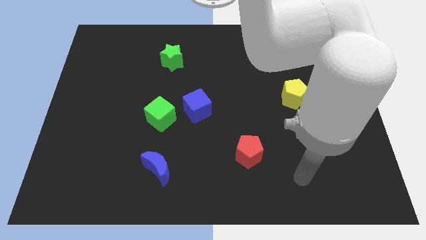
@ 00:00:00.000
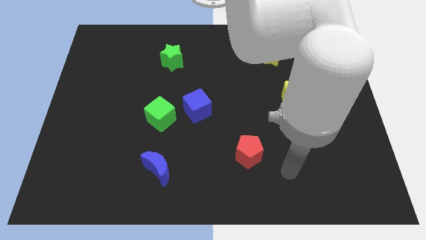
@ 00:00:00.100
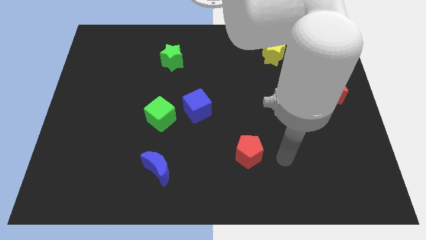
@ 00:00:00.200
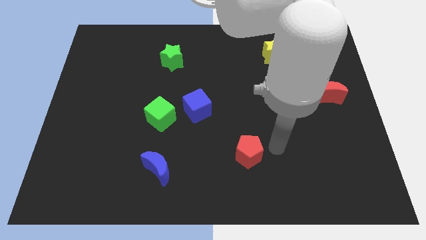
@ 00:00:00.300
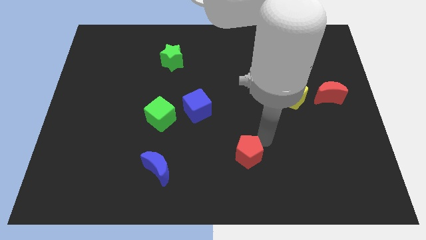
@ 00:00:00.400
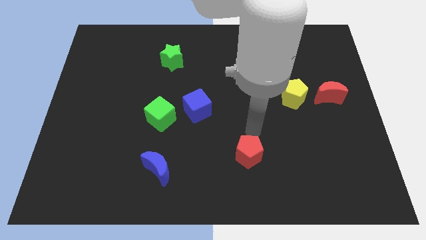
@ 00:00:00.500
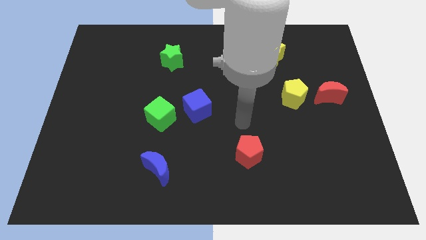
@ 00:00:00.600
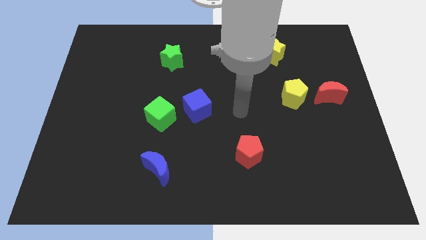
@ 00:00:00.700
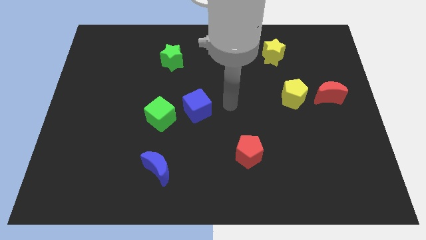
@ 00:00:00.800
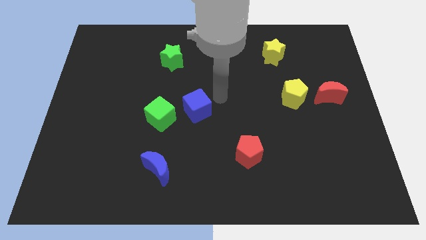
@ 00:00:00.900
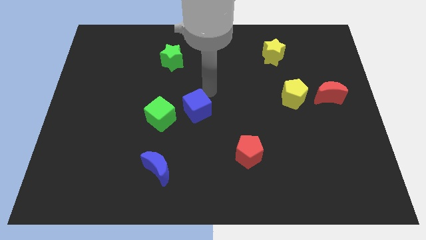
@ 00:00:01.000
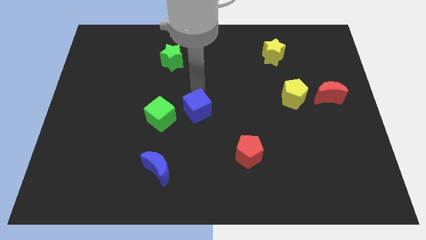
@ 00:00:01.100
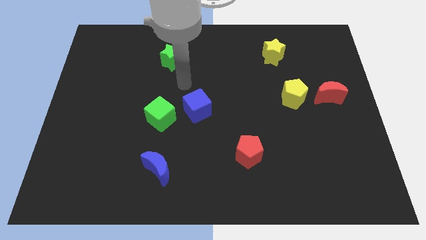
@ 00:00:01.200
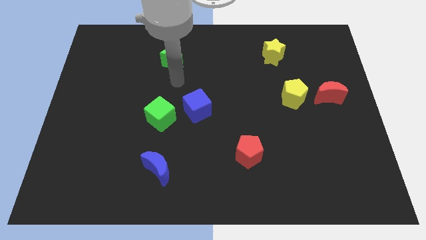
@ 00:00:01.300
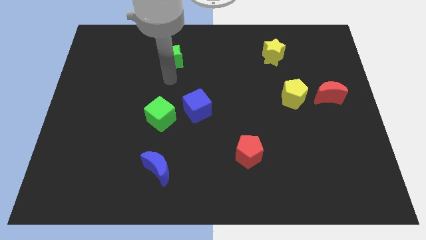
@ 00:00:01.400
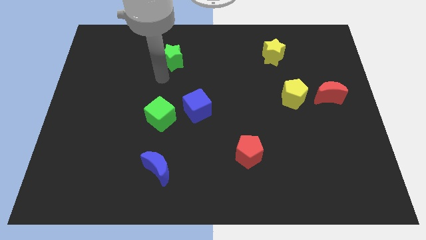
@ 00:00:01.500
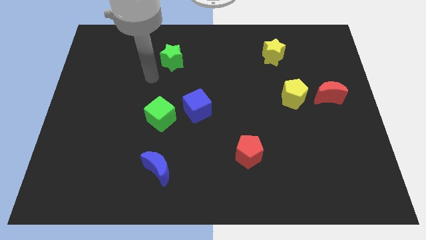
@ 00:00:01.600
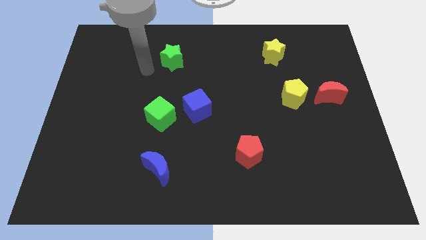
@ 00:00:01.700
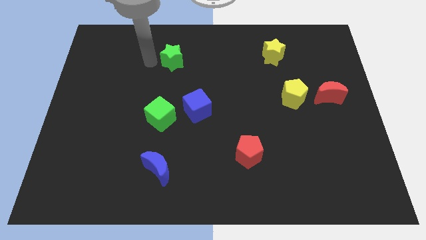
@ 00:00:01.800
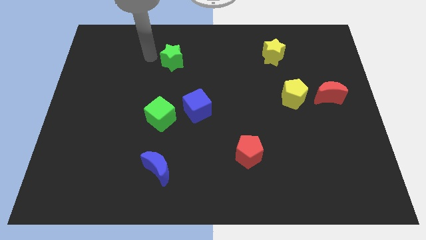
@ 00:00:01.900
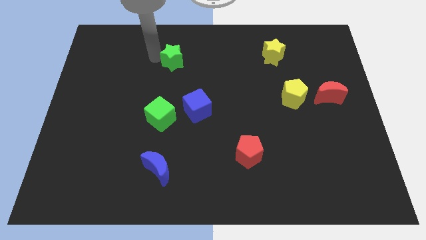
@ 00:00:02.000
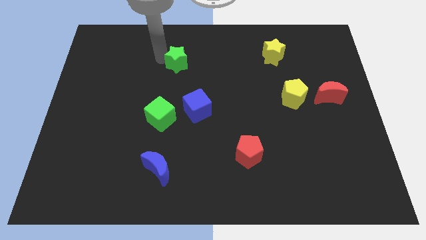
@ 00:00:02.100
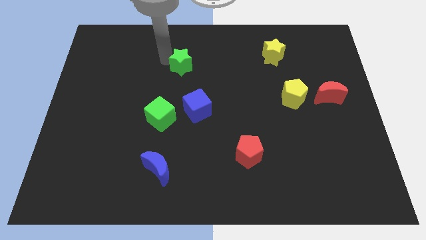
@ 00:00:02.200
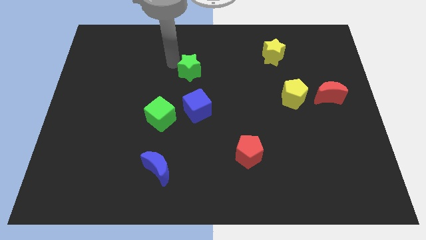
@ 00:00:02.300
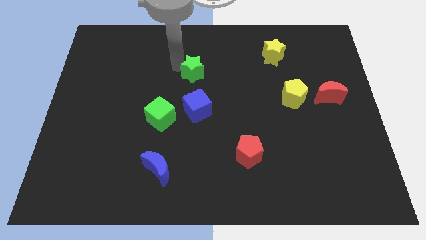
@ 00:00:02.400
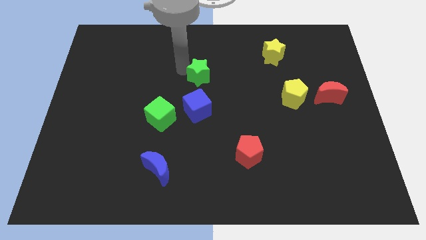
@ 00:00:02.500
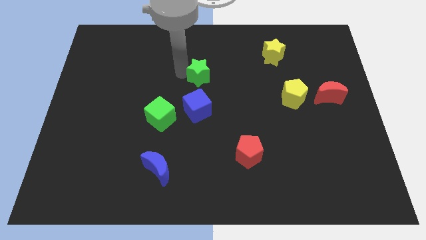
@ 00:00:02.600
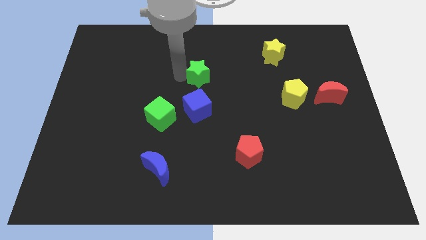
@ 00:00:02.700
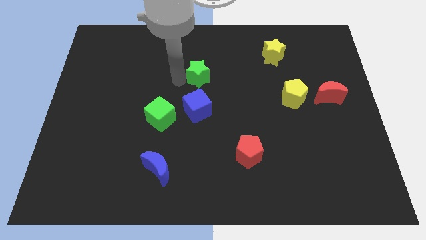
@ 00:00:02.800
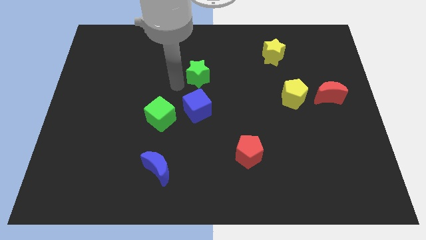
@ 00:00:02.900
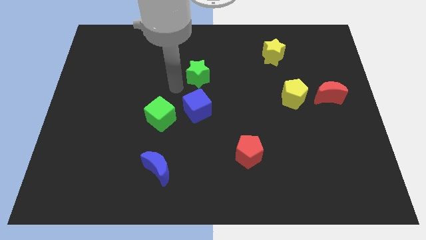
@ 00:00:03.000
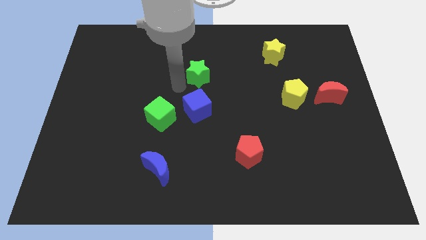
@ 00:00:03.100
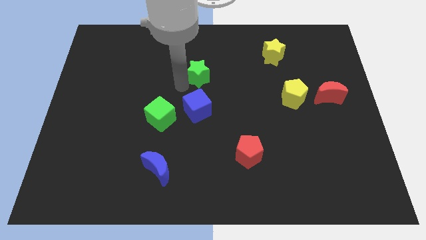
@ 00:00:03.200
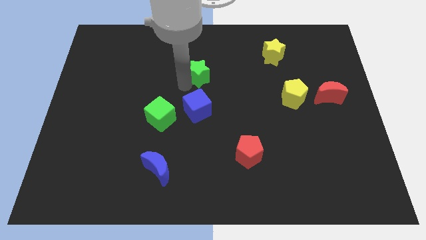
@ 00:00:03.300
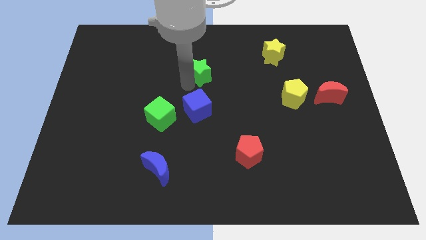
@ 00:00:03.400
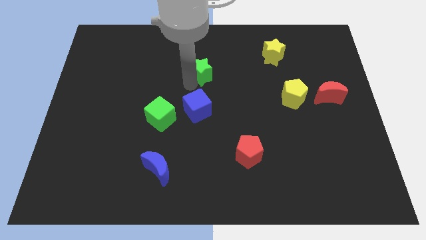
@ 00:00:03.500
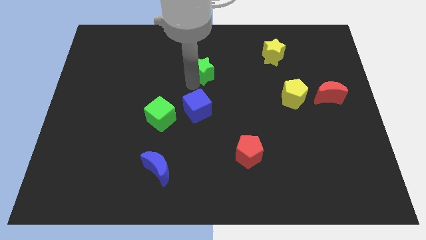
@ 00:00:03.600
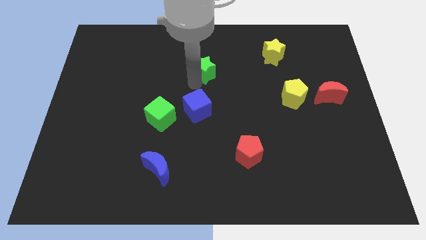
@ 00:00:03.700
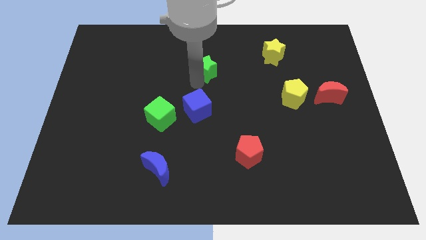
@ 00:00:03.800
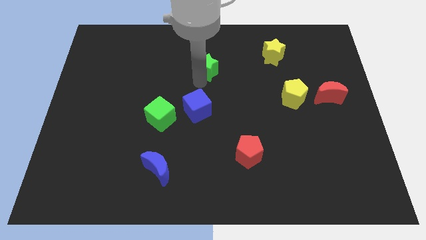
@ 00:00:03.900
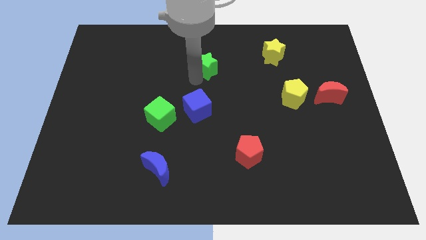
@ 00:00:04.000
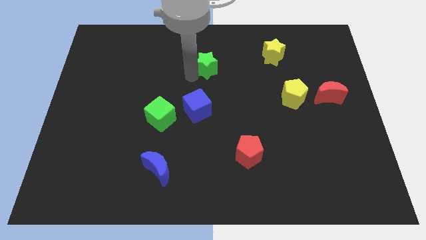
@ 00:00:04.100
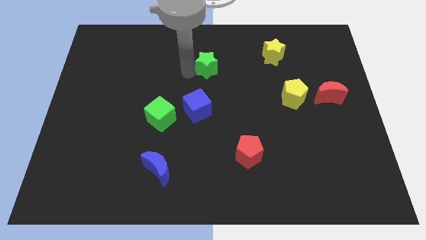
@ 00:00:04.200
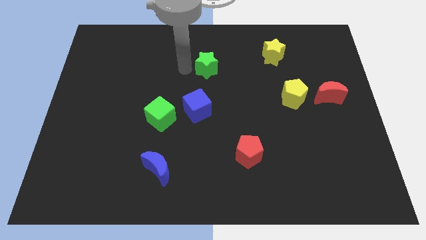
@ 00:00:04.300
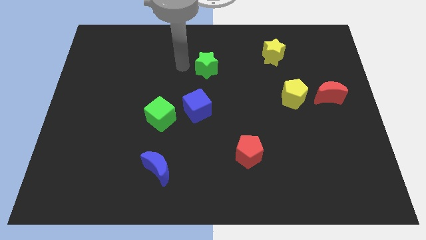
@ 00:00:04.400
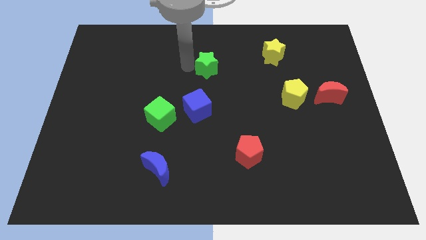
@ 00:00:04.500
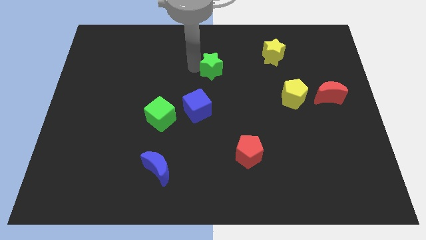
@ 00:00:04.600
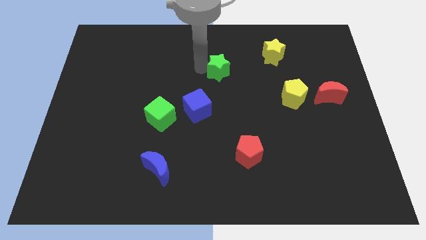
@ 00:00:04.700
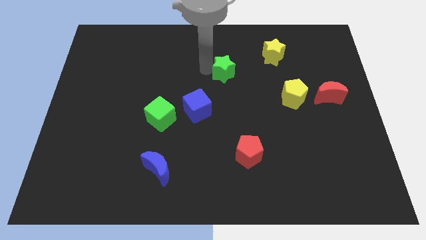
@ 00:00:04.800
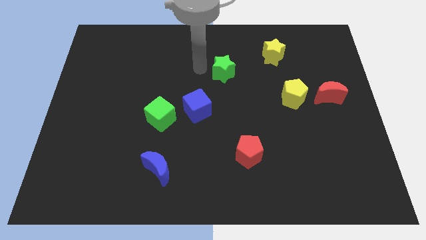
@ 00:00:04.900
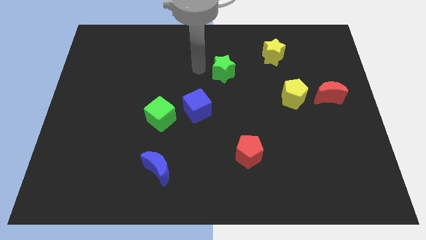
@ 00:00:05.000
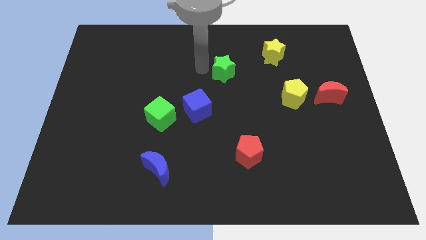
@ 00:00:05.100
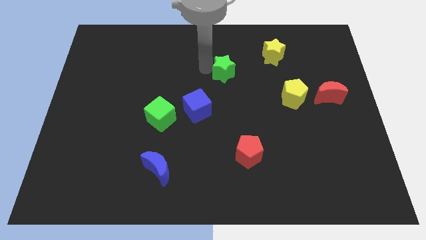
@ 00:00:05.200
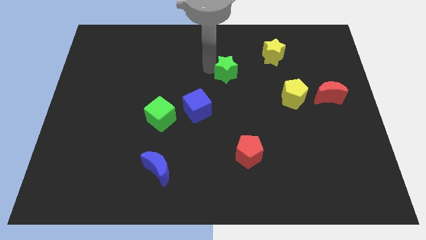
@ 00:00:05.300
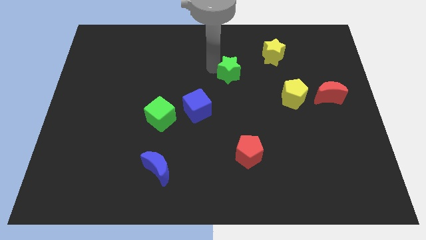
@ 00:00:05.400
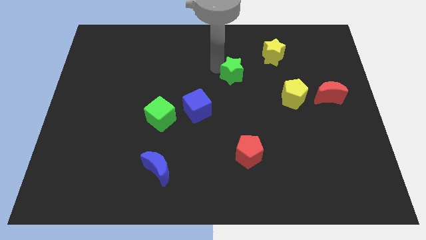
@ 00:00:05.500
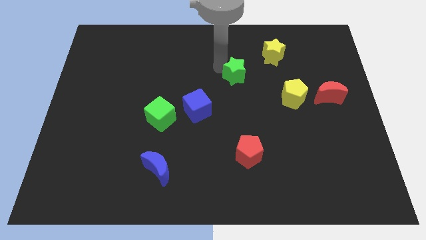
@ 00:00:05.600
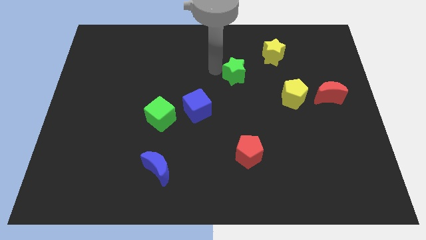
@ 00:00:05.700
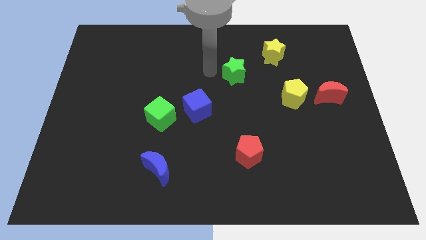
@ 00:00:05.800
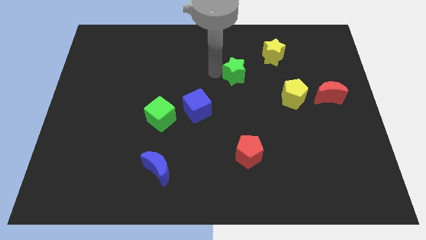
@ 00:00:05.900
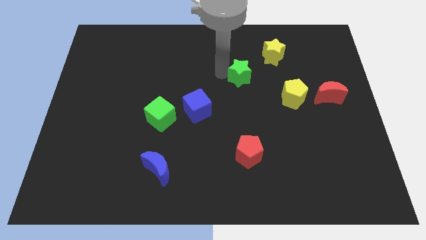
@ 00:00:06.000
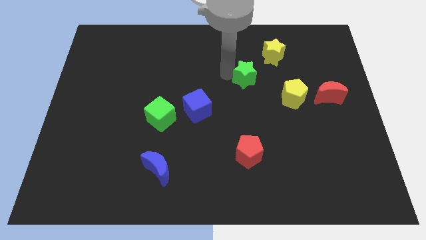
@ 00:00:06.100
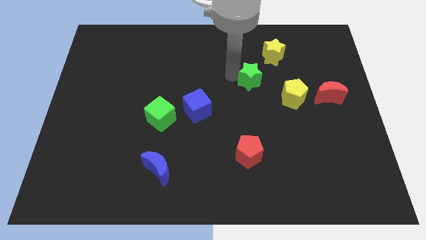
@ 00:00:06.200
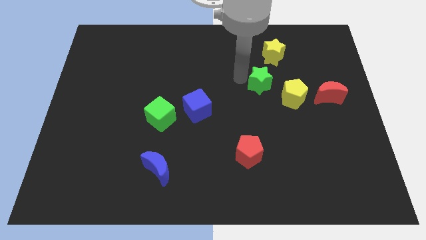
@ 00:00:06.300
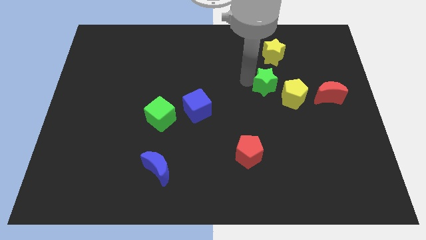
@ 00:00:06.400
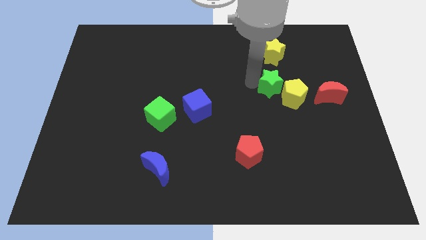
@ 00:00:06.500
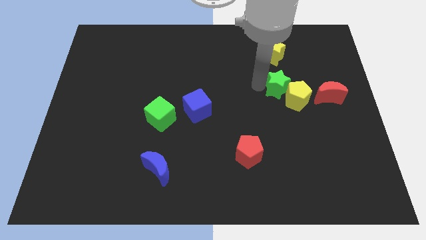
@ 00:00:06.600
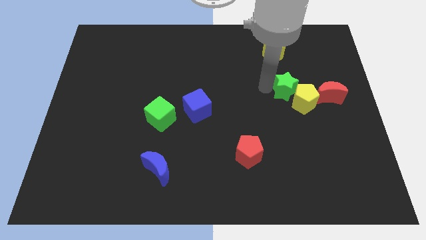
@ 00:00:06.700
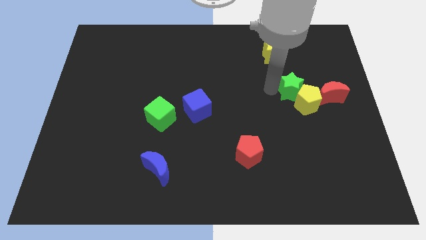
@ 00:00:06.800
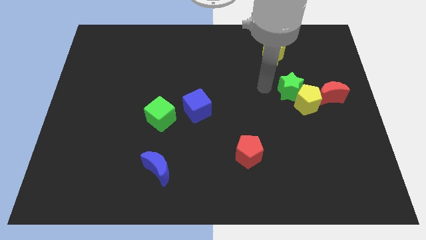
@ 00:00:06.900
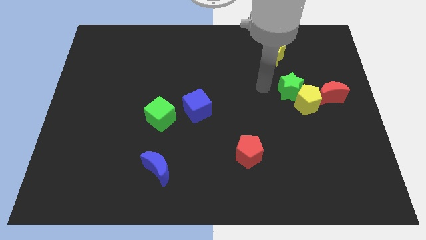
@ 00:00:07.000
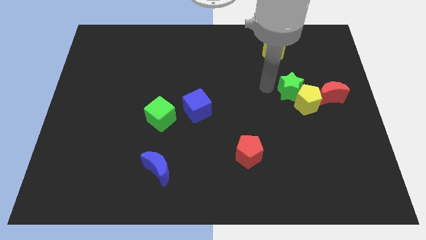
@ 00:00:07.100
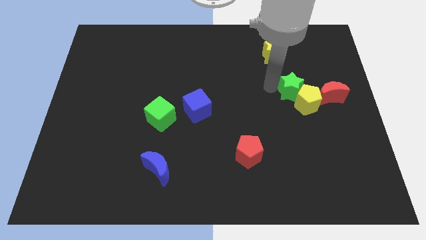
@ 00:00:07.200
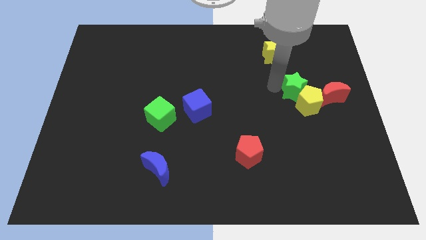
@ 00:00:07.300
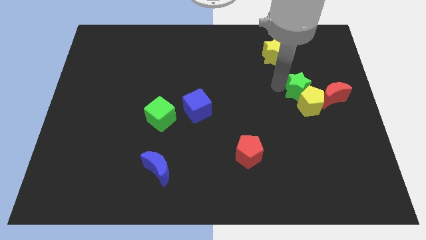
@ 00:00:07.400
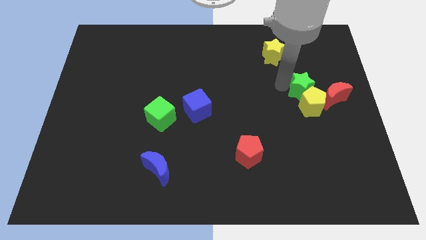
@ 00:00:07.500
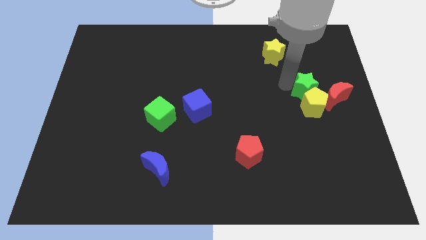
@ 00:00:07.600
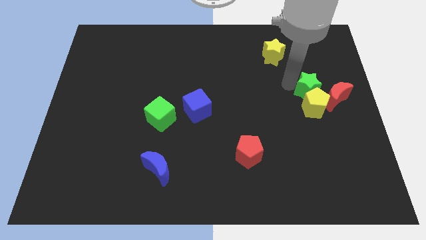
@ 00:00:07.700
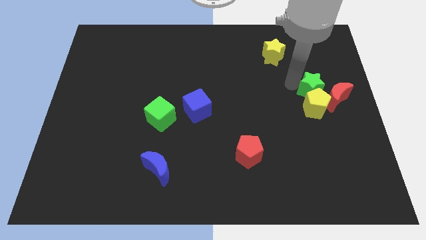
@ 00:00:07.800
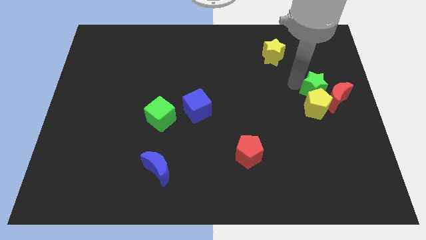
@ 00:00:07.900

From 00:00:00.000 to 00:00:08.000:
put the green star towards the red moon
